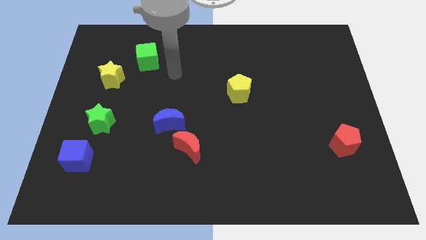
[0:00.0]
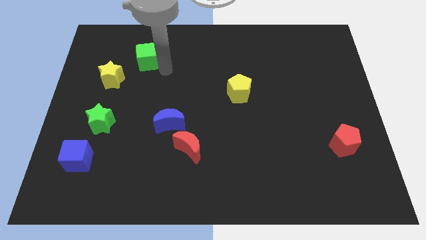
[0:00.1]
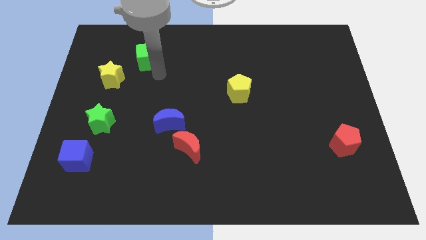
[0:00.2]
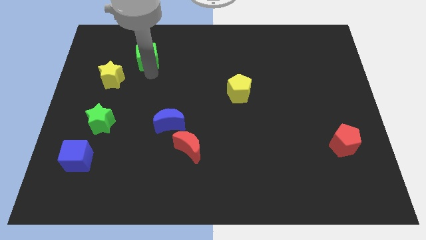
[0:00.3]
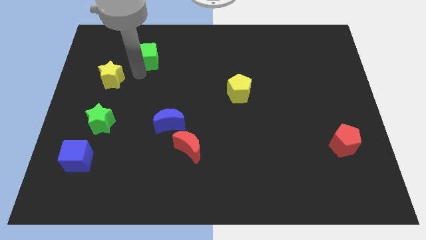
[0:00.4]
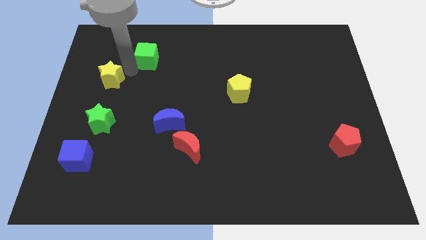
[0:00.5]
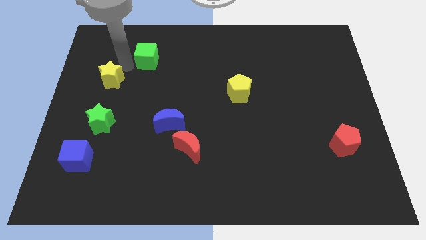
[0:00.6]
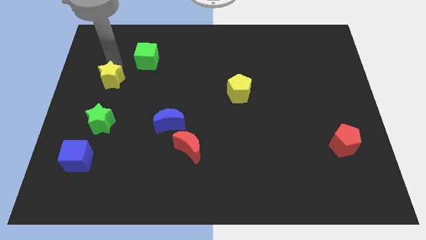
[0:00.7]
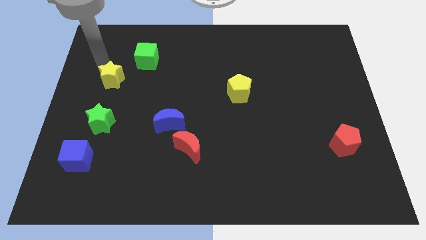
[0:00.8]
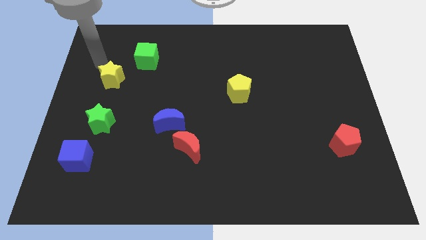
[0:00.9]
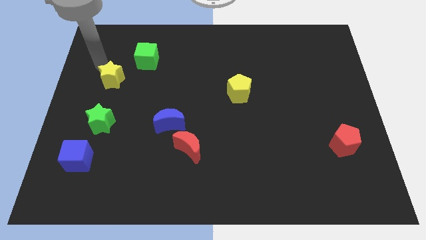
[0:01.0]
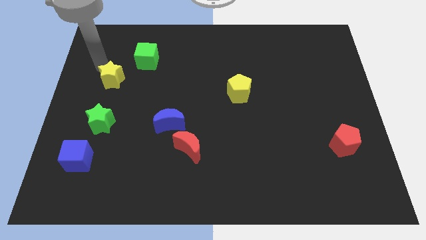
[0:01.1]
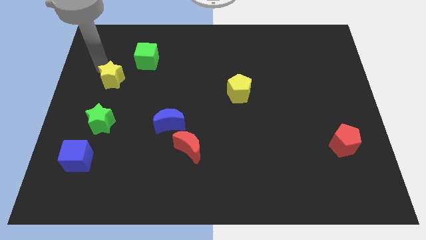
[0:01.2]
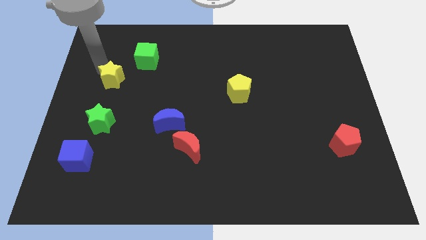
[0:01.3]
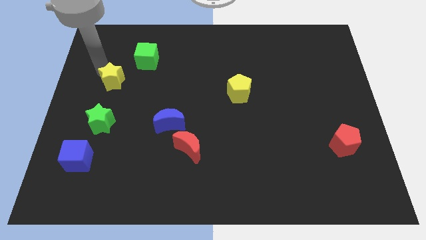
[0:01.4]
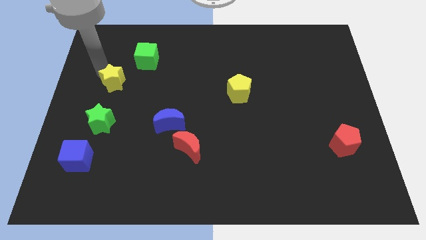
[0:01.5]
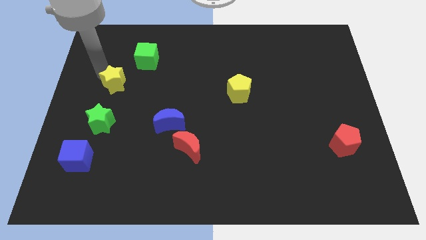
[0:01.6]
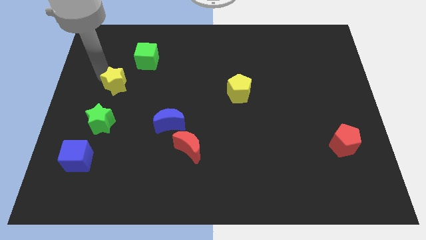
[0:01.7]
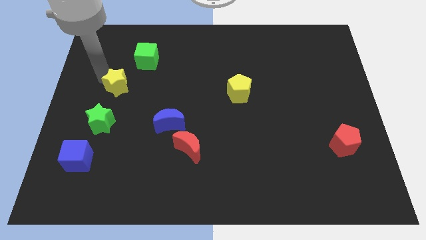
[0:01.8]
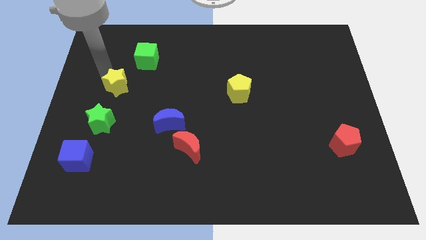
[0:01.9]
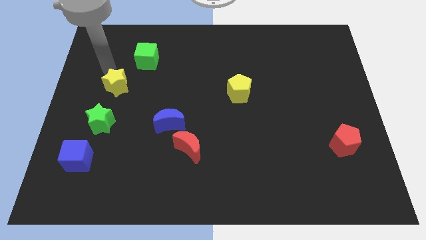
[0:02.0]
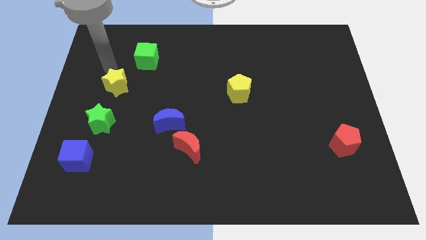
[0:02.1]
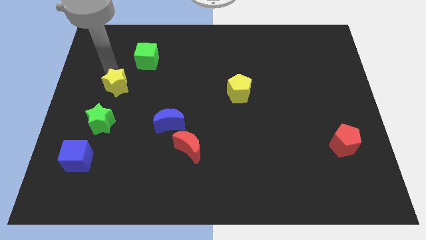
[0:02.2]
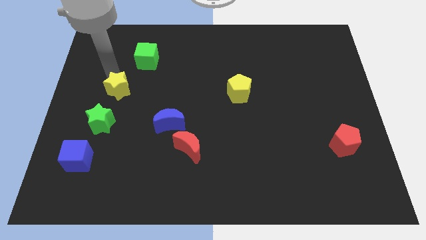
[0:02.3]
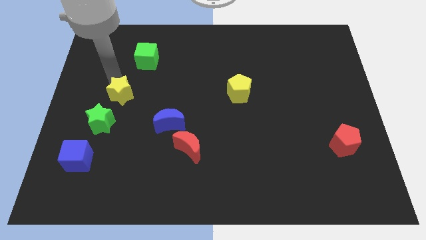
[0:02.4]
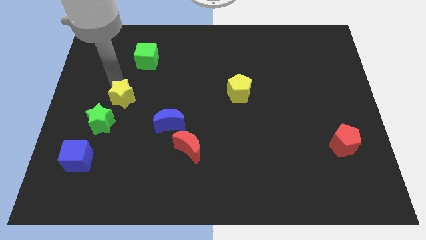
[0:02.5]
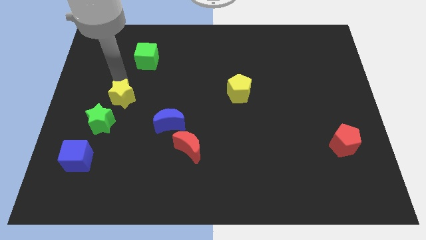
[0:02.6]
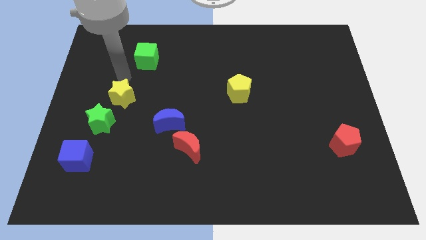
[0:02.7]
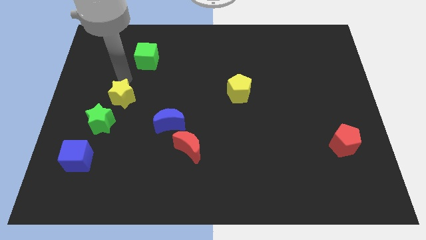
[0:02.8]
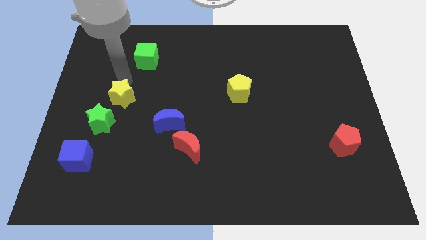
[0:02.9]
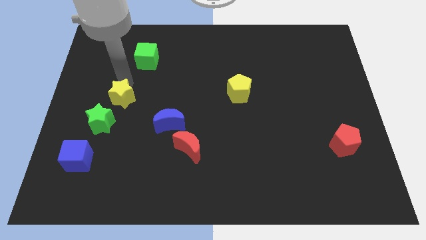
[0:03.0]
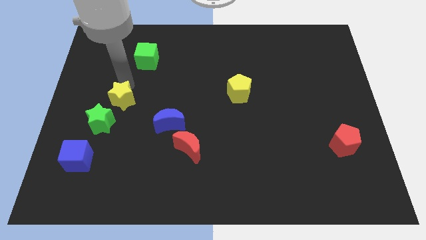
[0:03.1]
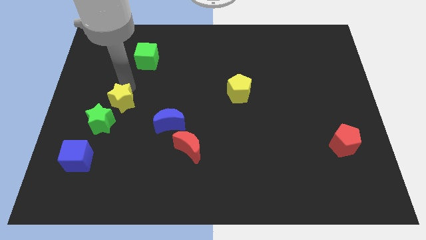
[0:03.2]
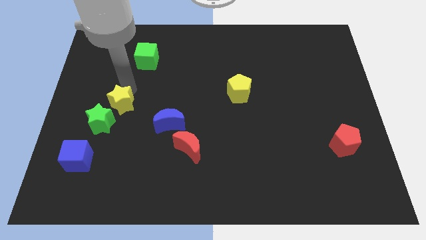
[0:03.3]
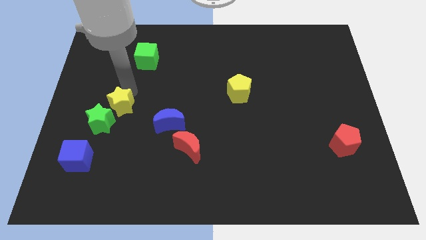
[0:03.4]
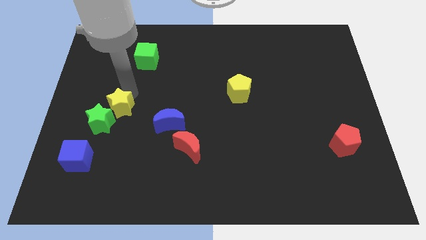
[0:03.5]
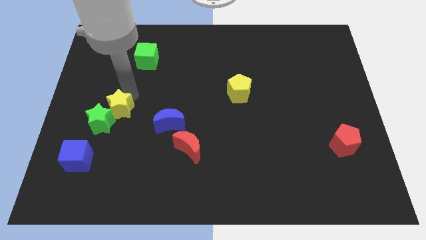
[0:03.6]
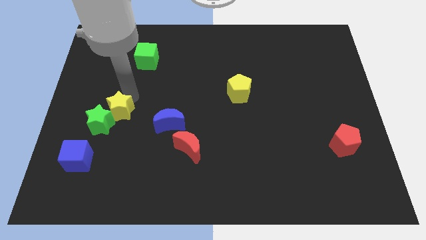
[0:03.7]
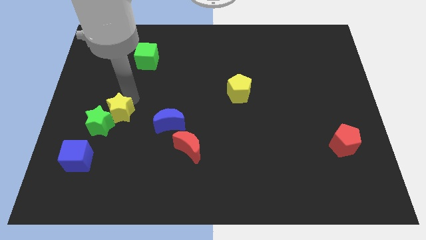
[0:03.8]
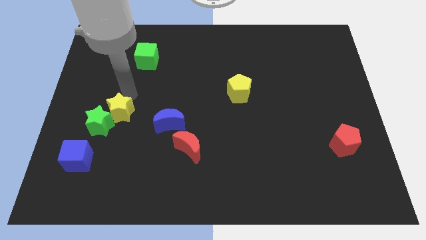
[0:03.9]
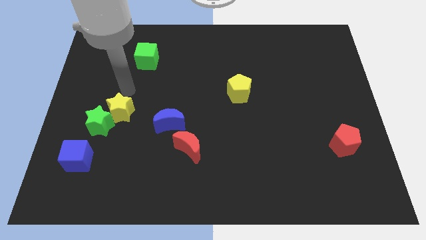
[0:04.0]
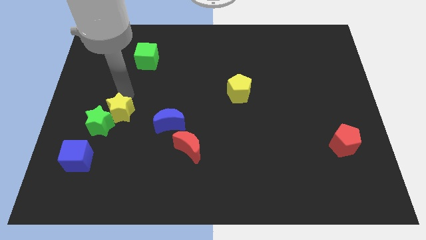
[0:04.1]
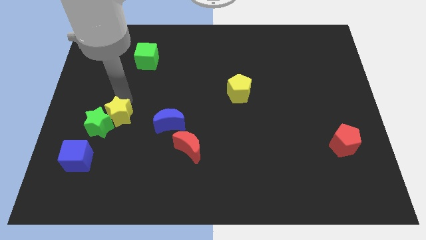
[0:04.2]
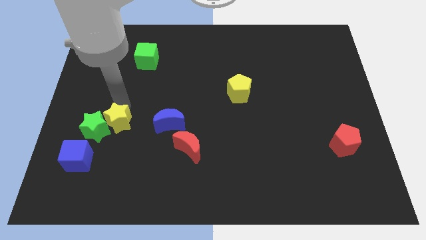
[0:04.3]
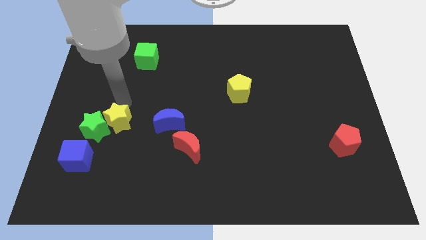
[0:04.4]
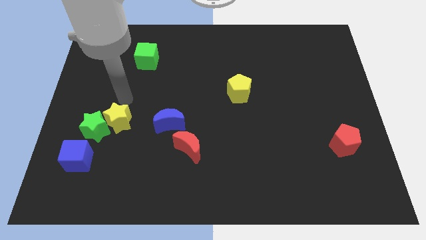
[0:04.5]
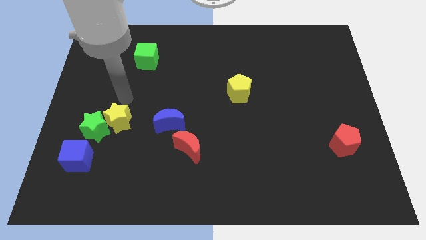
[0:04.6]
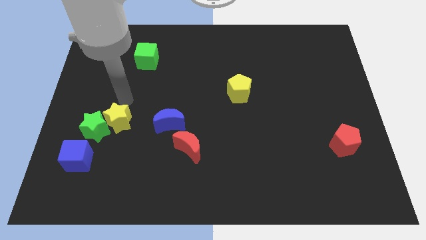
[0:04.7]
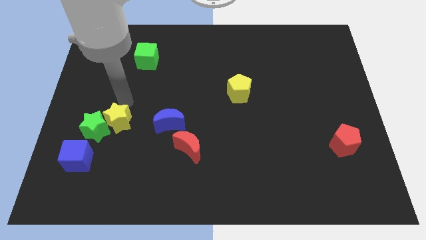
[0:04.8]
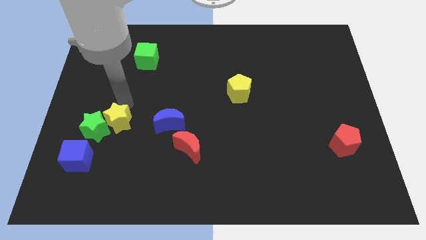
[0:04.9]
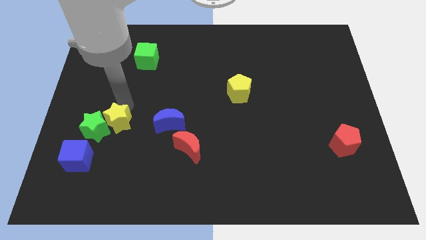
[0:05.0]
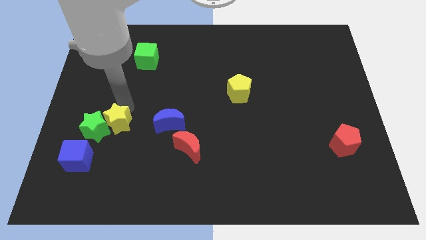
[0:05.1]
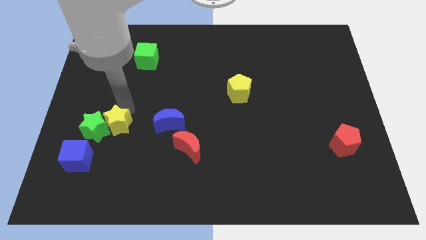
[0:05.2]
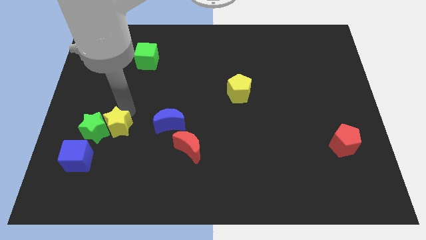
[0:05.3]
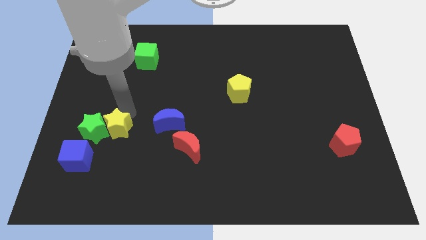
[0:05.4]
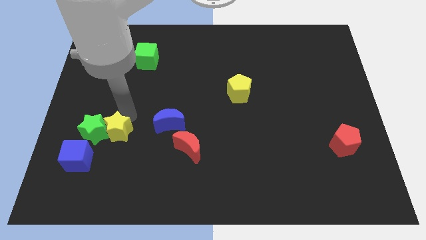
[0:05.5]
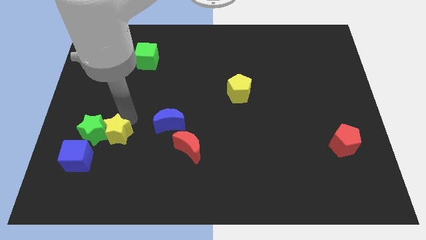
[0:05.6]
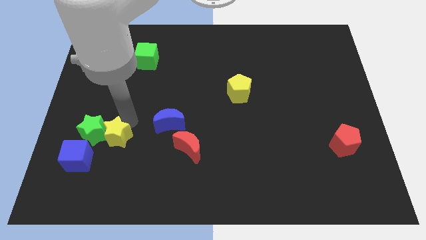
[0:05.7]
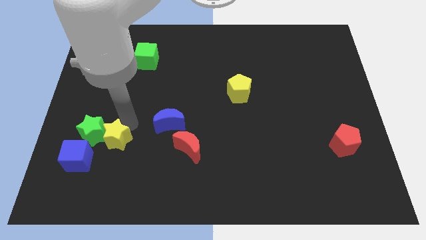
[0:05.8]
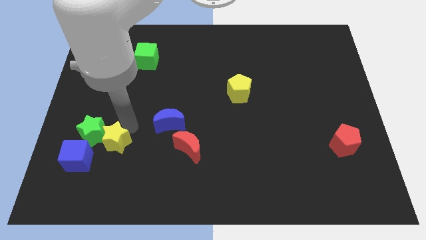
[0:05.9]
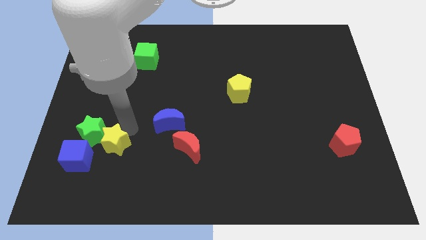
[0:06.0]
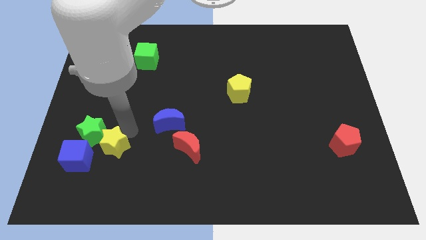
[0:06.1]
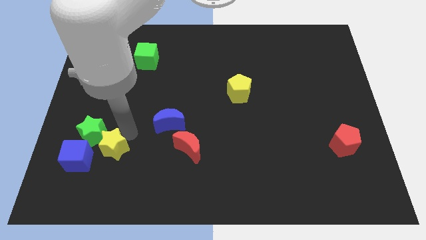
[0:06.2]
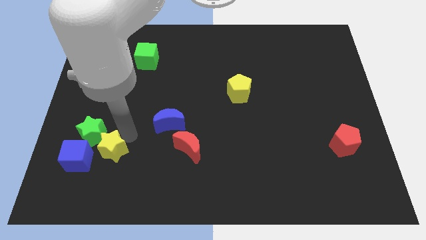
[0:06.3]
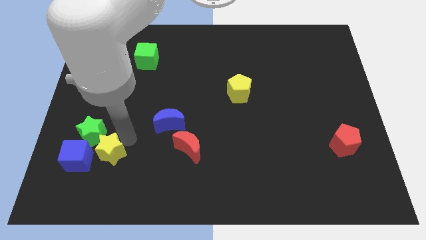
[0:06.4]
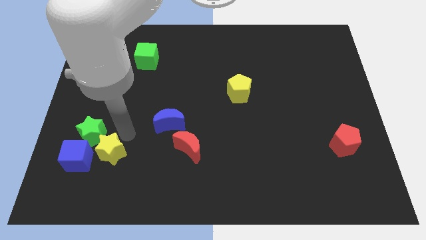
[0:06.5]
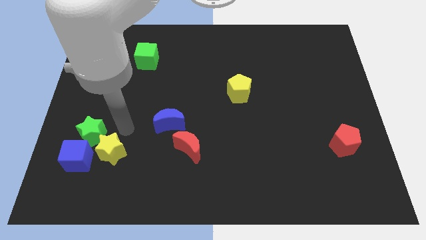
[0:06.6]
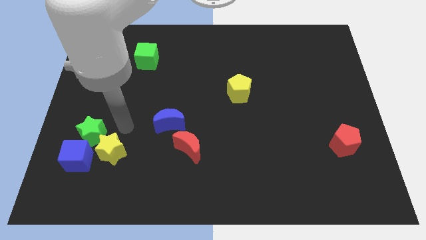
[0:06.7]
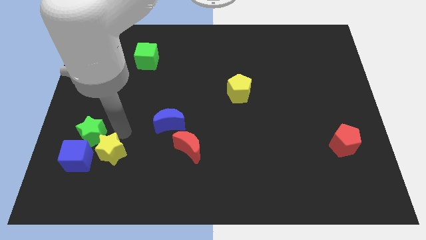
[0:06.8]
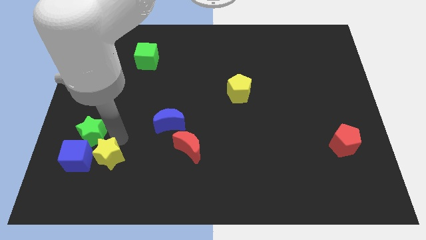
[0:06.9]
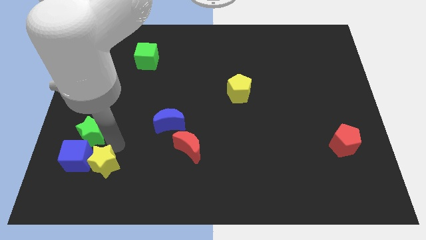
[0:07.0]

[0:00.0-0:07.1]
put the yellow star diagonally down and to the right of the blue cube

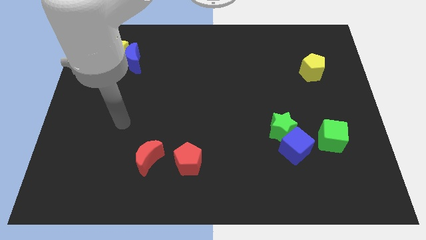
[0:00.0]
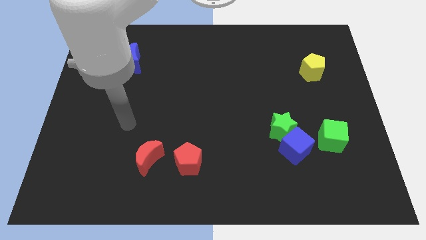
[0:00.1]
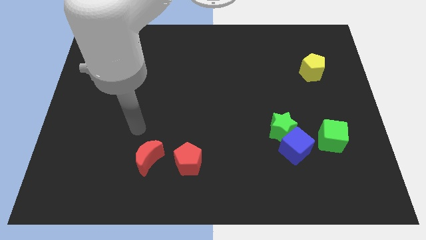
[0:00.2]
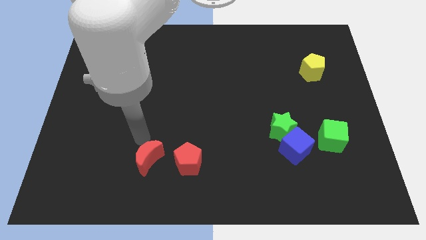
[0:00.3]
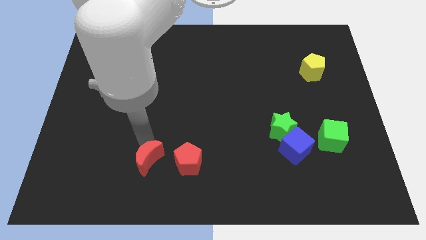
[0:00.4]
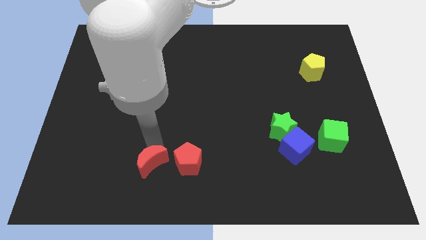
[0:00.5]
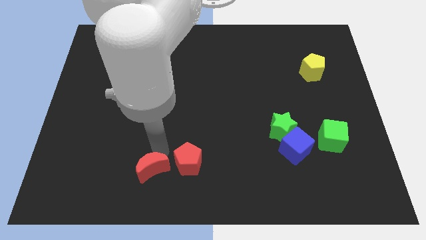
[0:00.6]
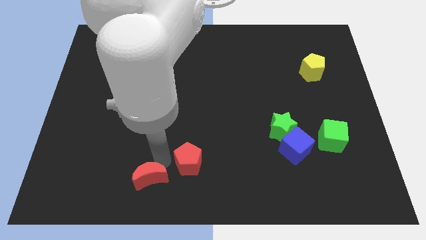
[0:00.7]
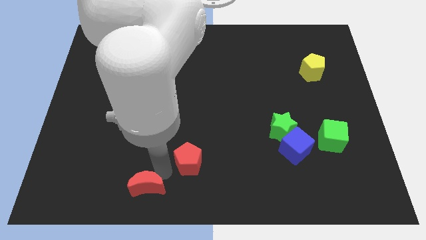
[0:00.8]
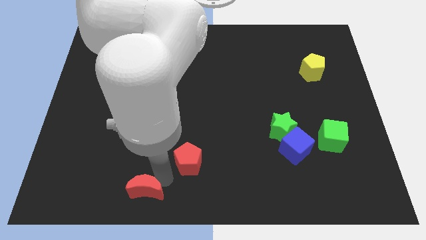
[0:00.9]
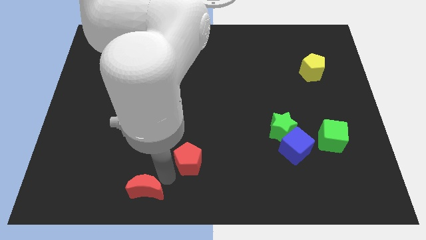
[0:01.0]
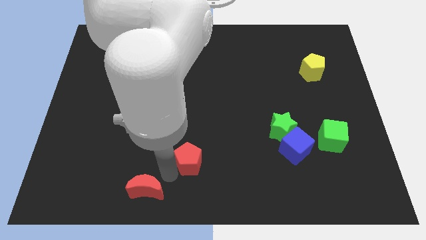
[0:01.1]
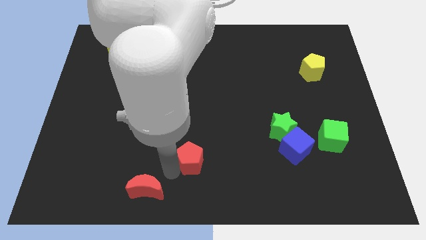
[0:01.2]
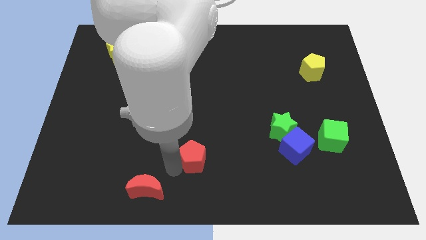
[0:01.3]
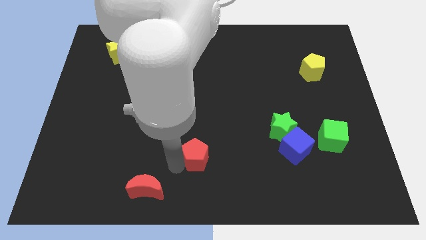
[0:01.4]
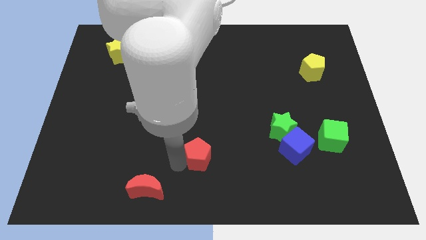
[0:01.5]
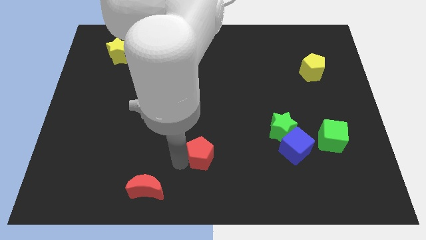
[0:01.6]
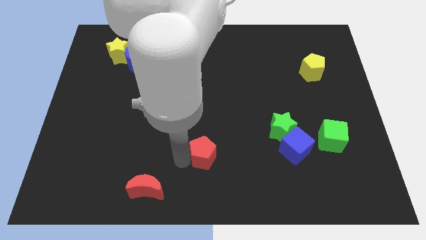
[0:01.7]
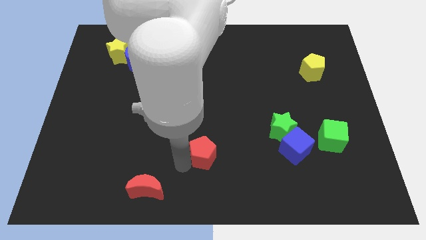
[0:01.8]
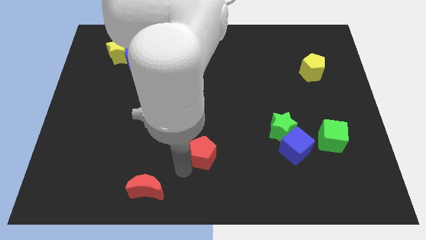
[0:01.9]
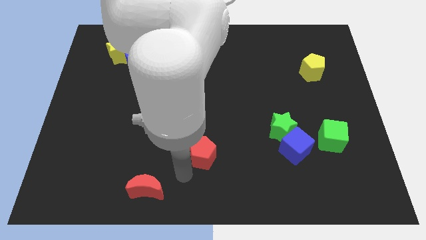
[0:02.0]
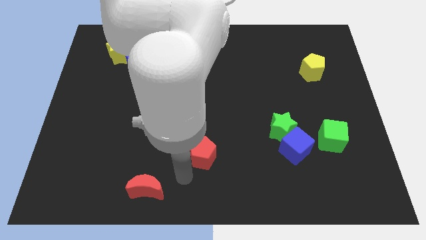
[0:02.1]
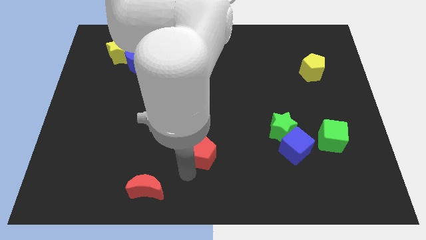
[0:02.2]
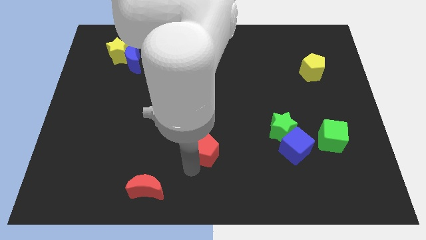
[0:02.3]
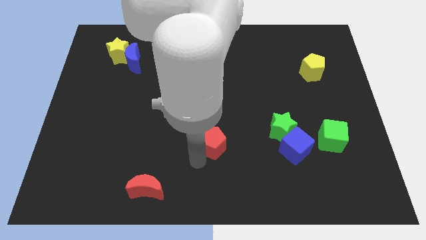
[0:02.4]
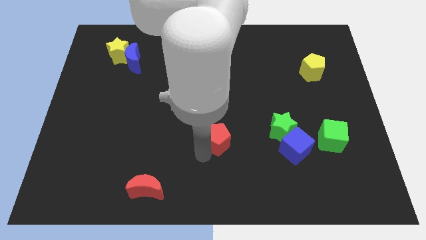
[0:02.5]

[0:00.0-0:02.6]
put the red pentagon to the left side of the green star
